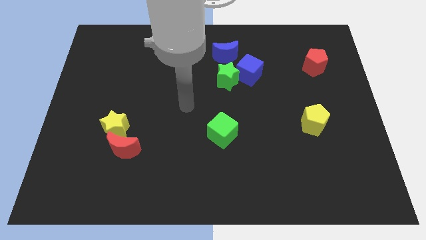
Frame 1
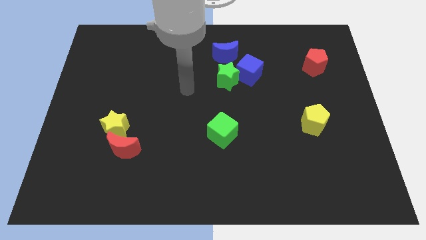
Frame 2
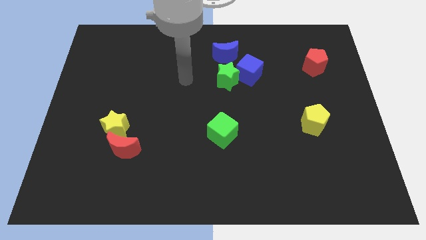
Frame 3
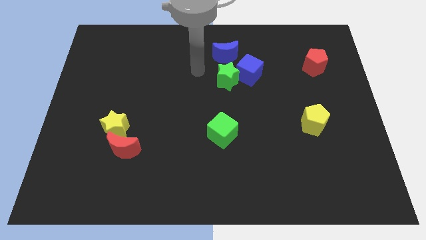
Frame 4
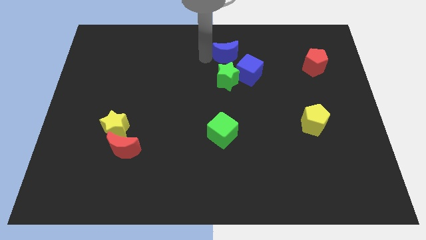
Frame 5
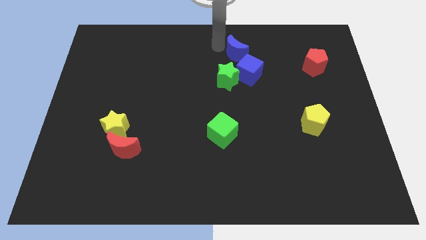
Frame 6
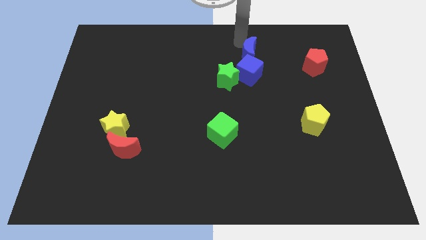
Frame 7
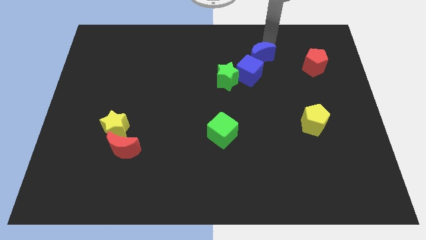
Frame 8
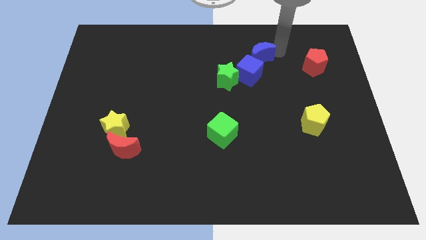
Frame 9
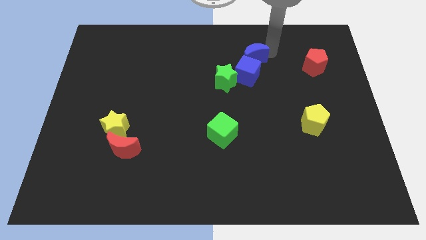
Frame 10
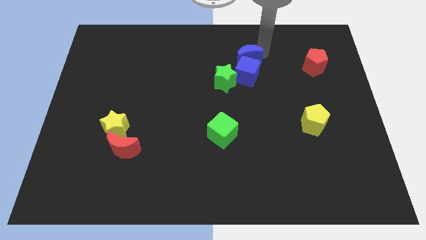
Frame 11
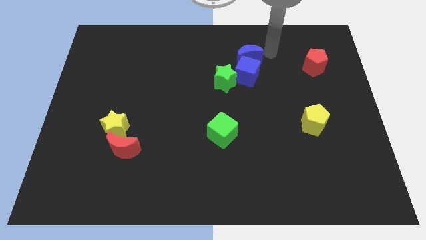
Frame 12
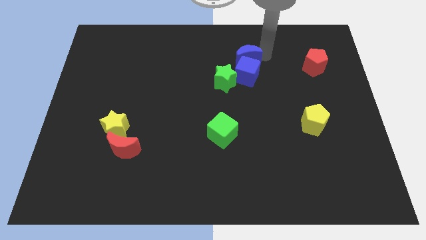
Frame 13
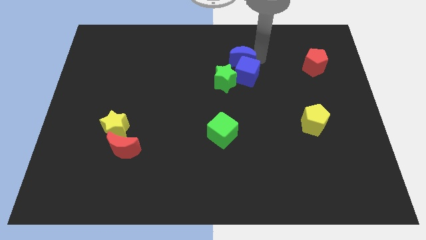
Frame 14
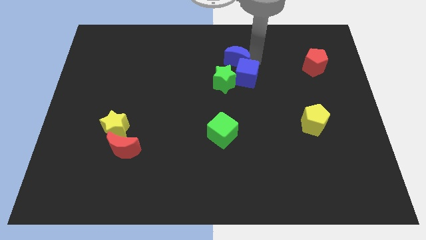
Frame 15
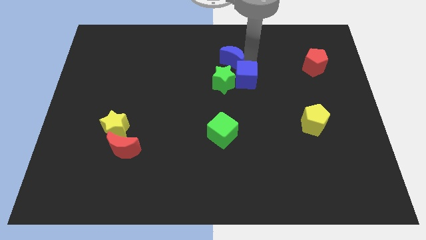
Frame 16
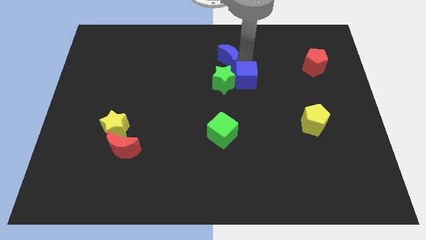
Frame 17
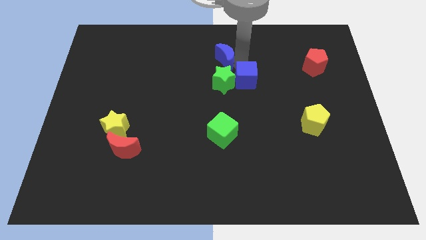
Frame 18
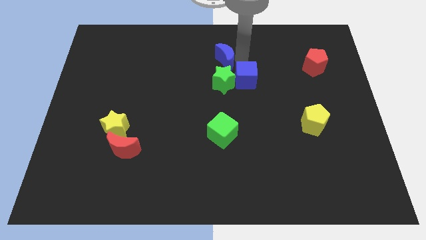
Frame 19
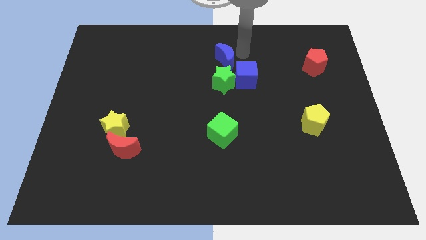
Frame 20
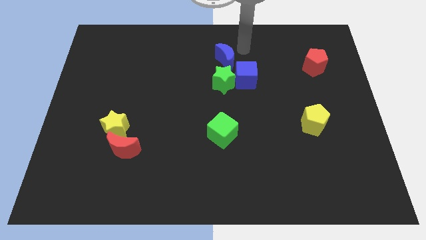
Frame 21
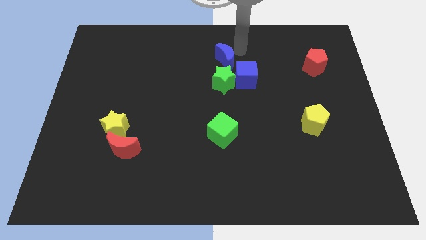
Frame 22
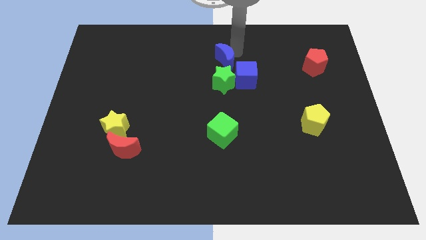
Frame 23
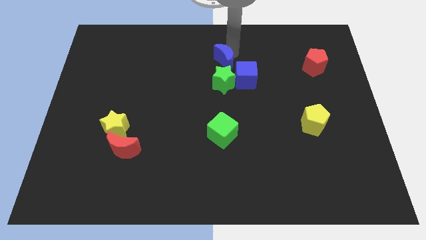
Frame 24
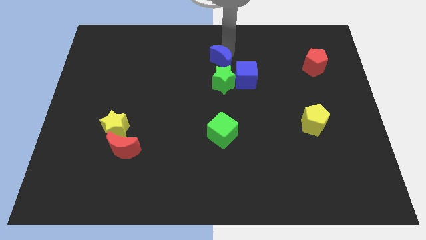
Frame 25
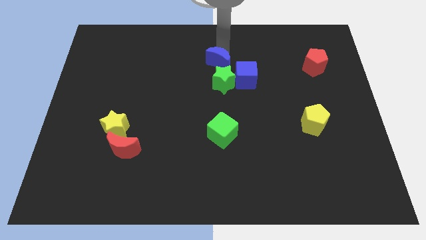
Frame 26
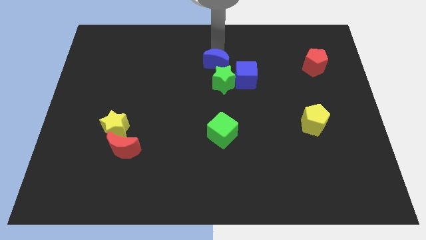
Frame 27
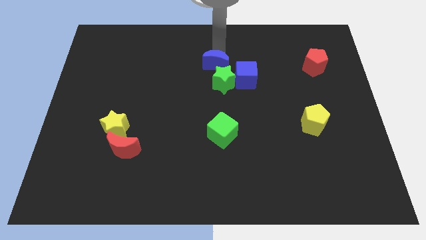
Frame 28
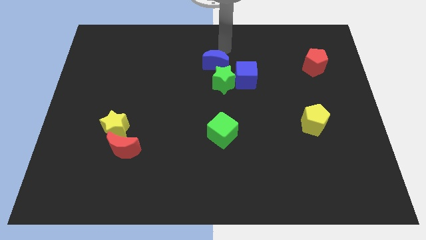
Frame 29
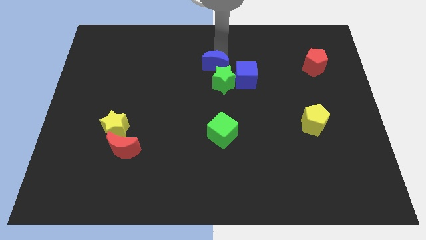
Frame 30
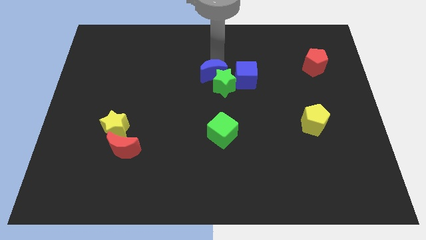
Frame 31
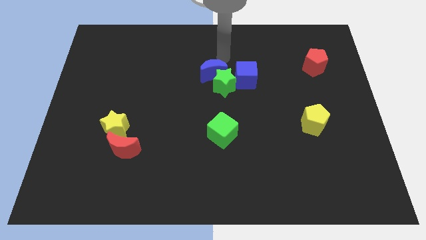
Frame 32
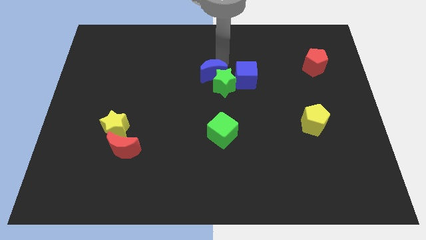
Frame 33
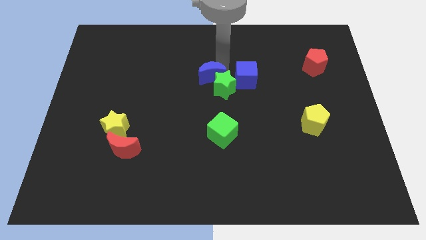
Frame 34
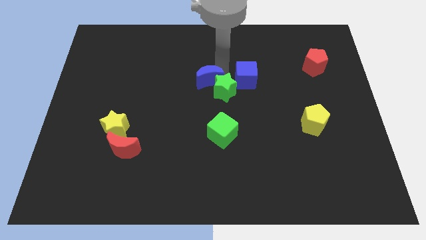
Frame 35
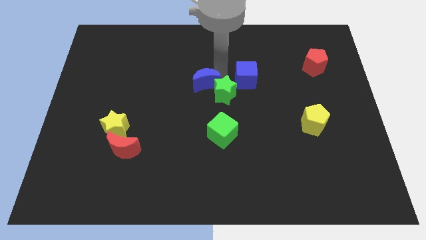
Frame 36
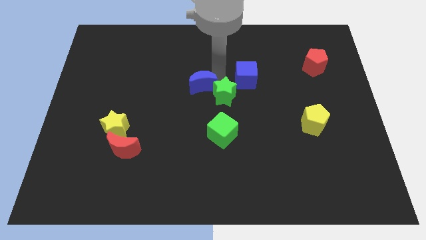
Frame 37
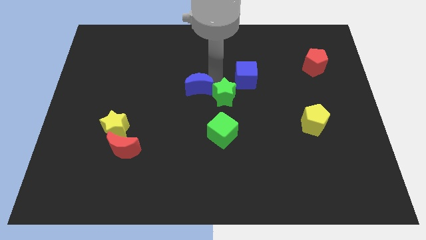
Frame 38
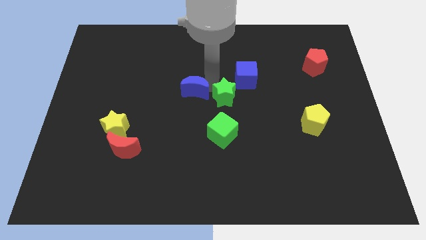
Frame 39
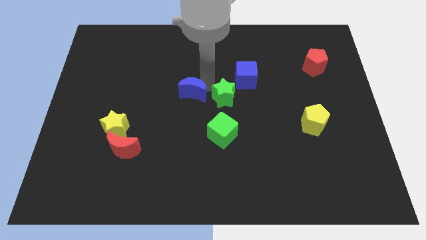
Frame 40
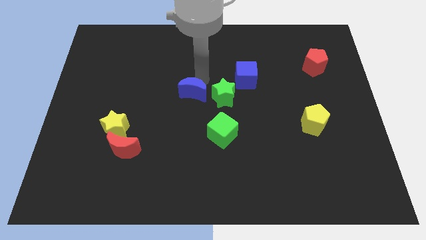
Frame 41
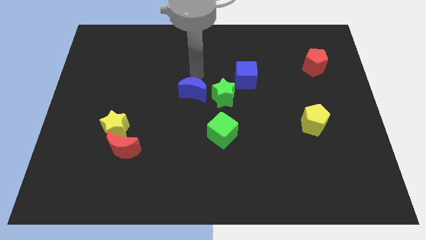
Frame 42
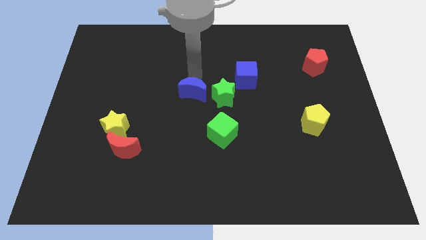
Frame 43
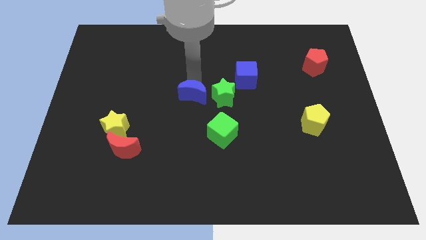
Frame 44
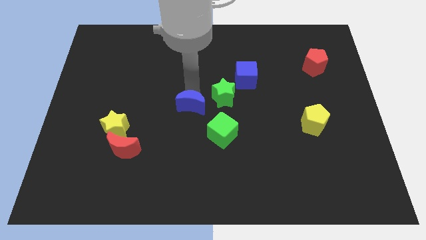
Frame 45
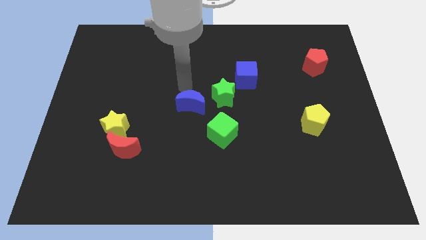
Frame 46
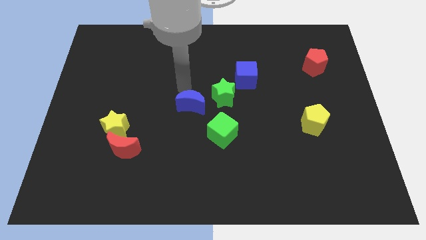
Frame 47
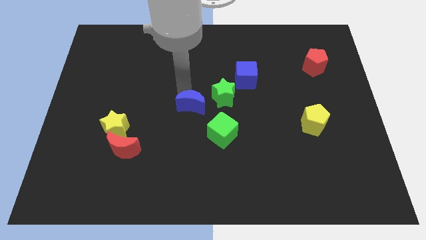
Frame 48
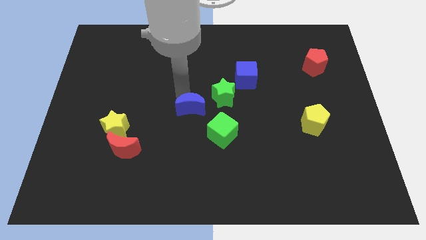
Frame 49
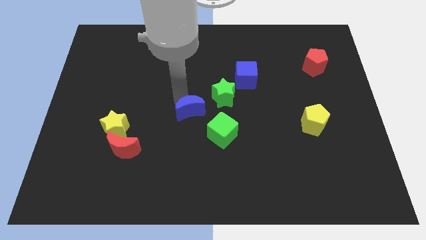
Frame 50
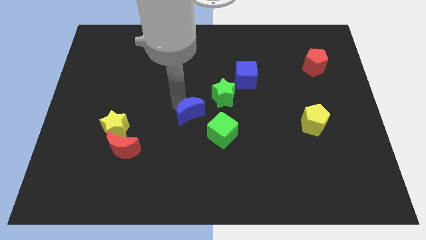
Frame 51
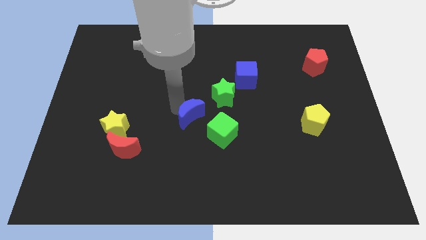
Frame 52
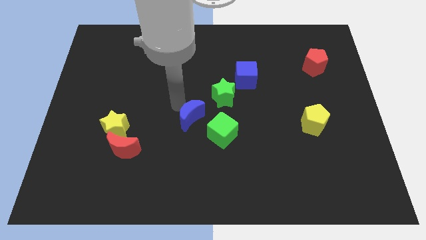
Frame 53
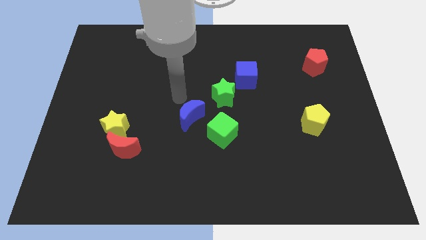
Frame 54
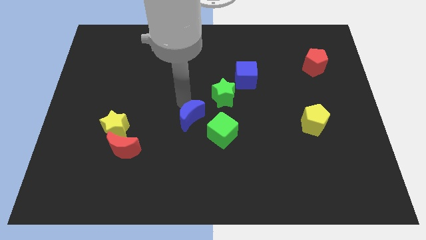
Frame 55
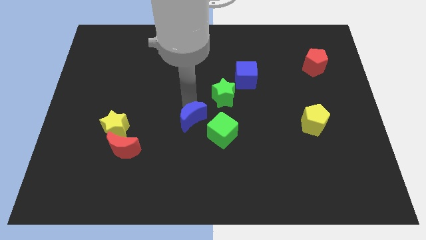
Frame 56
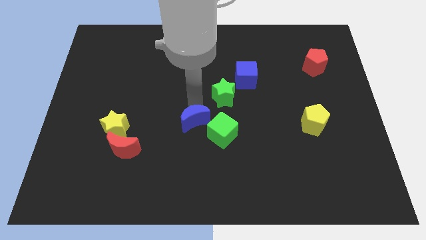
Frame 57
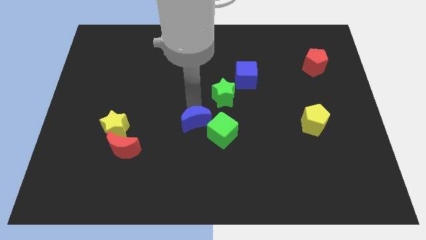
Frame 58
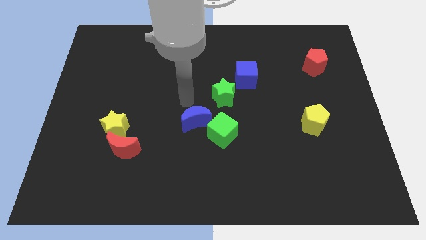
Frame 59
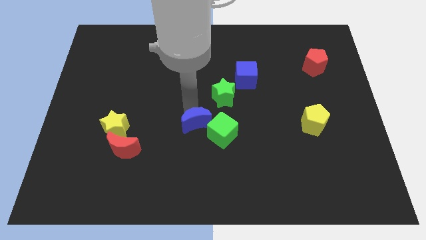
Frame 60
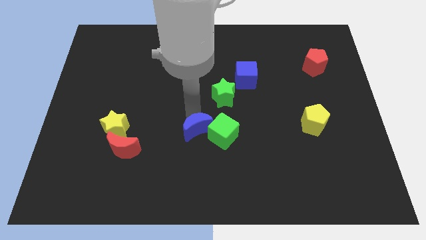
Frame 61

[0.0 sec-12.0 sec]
move the blue moon downwards

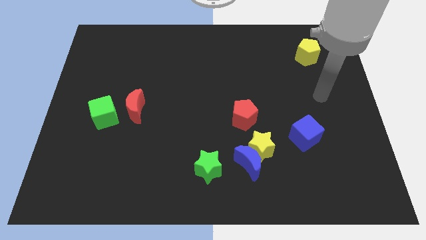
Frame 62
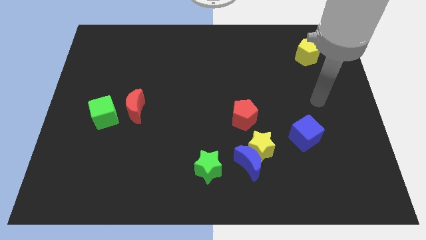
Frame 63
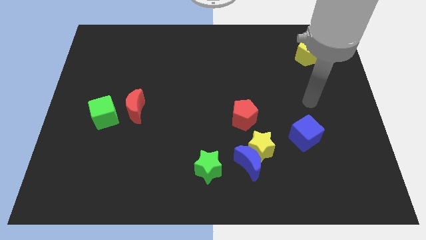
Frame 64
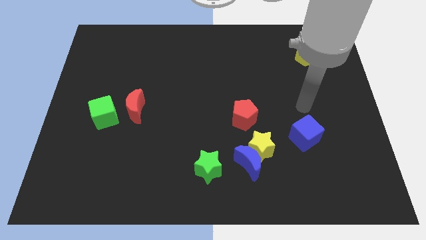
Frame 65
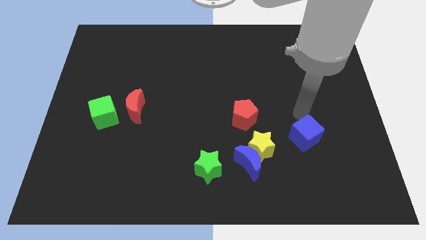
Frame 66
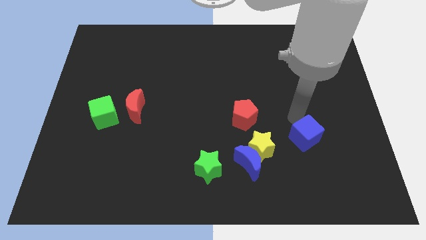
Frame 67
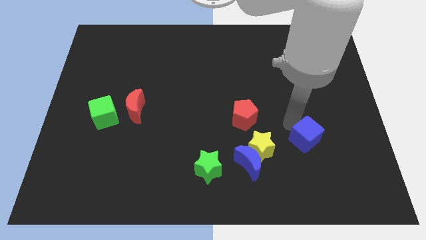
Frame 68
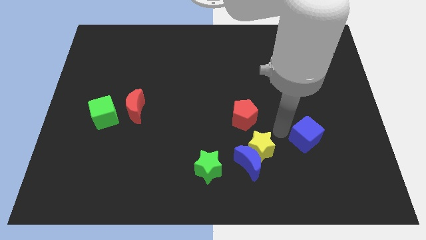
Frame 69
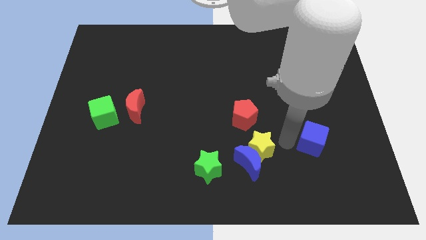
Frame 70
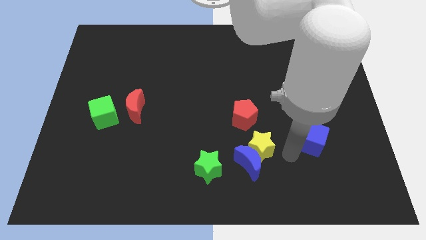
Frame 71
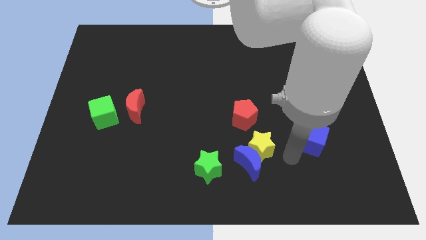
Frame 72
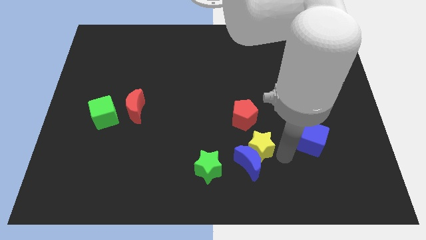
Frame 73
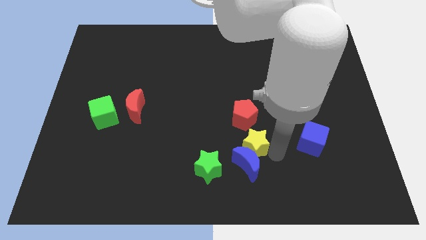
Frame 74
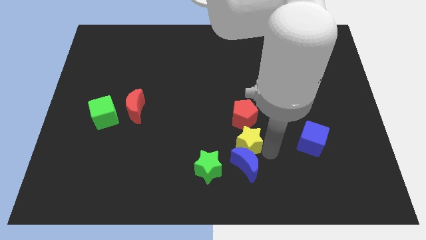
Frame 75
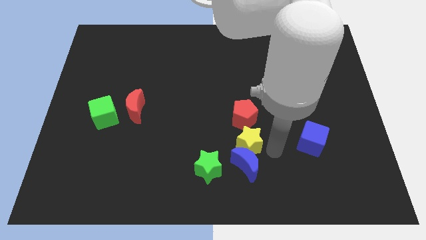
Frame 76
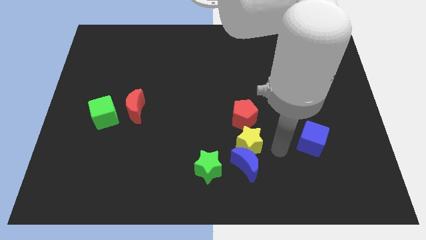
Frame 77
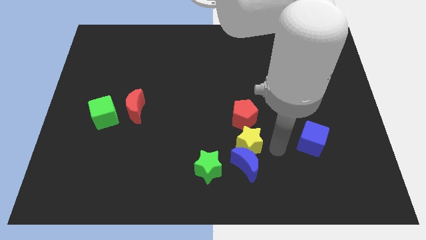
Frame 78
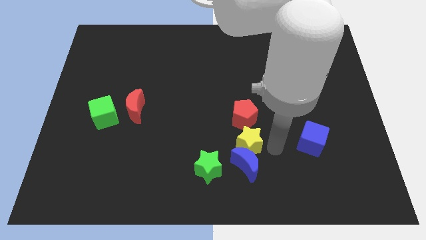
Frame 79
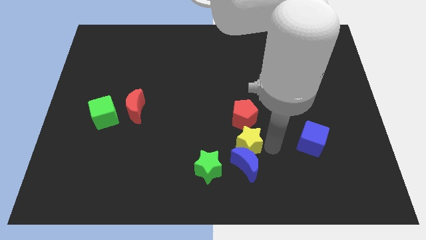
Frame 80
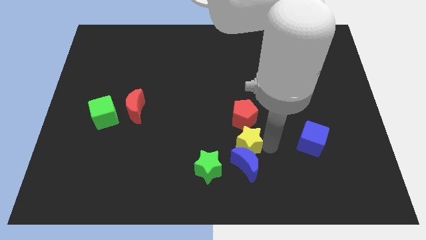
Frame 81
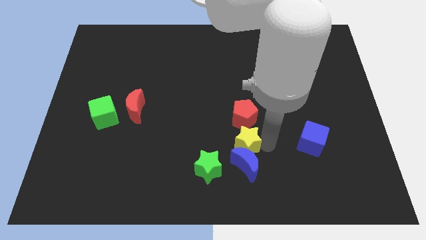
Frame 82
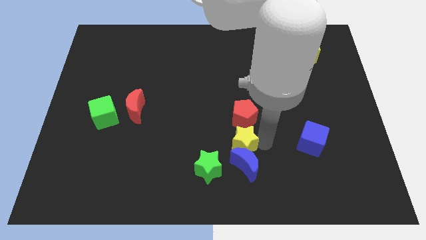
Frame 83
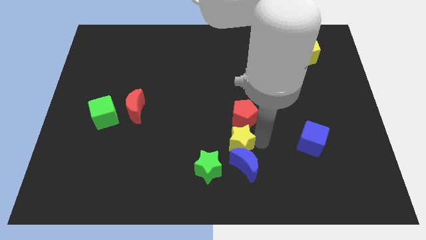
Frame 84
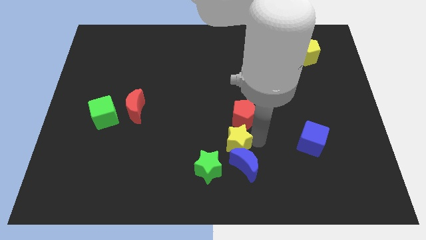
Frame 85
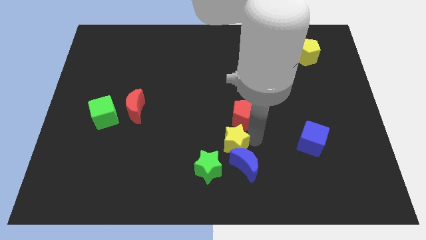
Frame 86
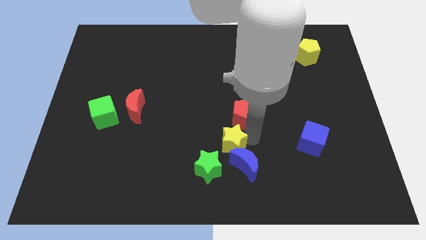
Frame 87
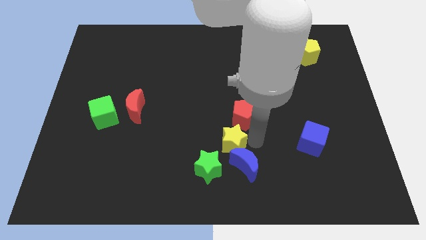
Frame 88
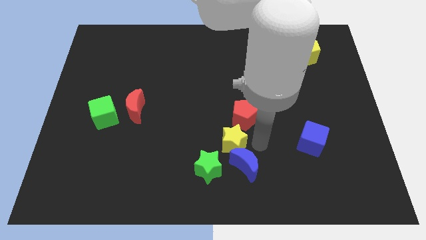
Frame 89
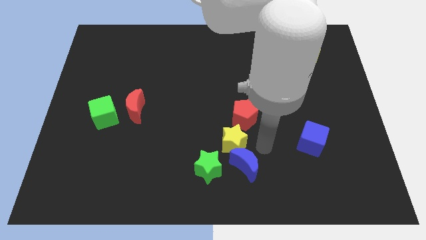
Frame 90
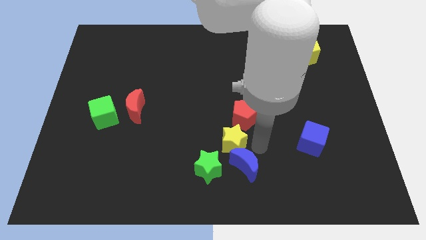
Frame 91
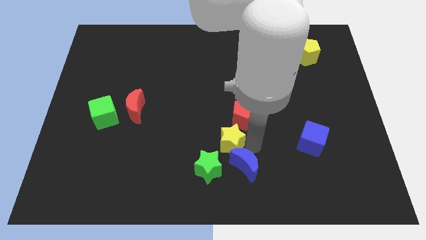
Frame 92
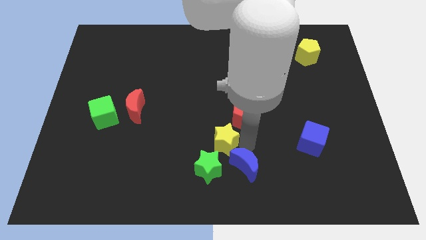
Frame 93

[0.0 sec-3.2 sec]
push the yellow star slightly left
